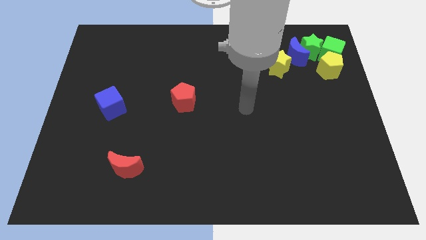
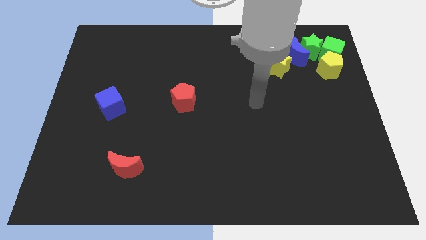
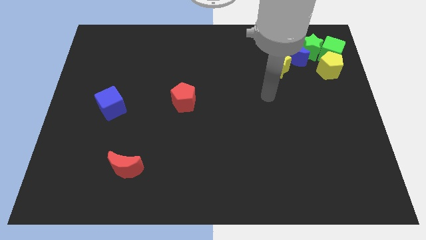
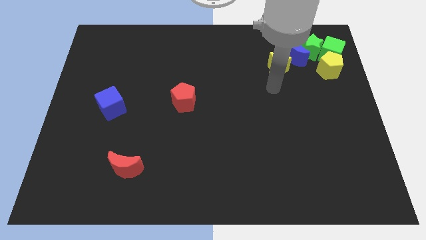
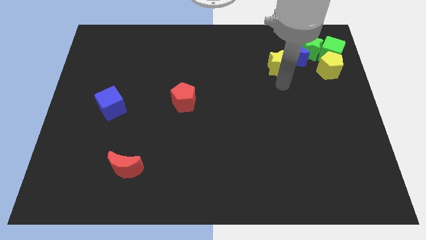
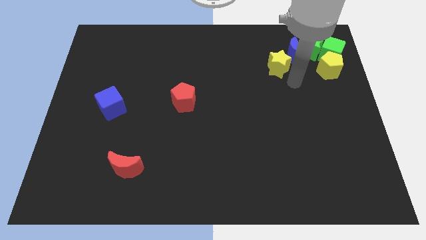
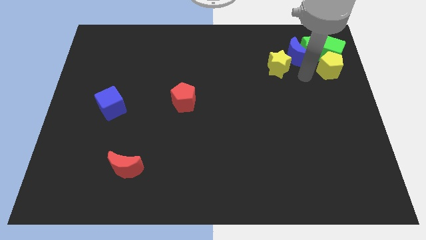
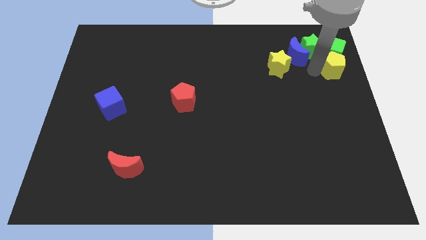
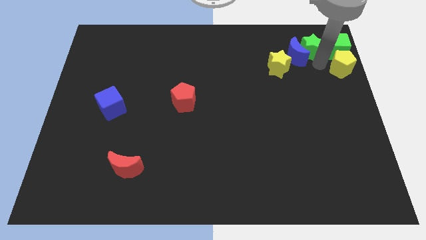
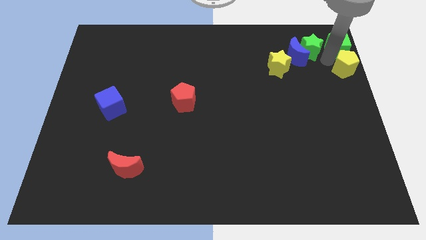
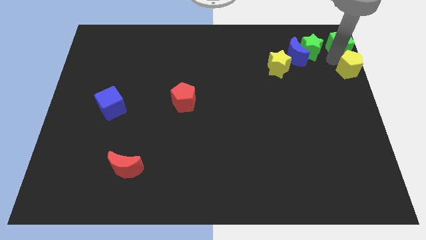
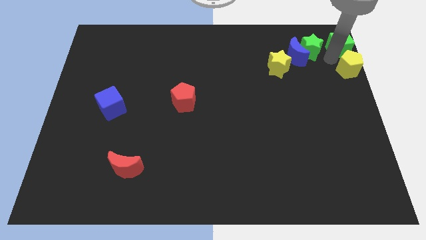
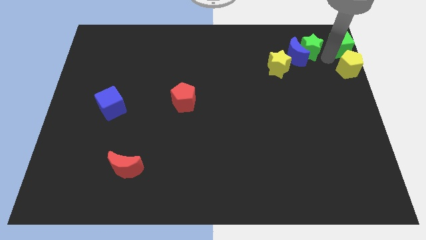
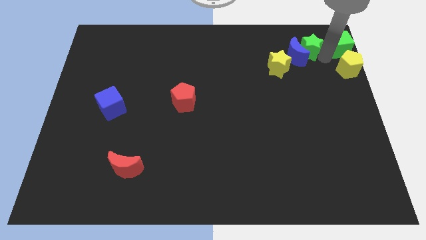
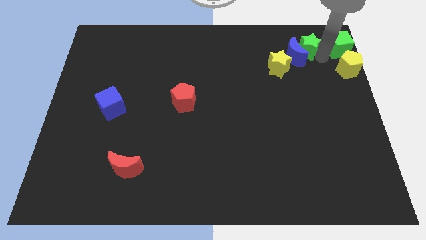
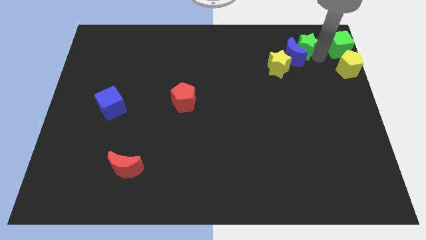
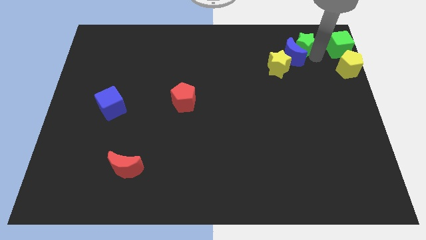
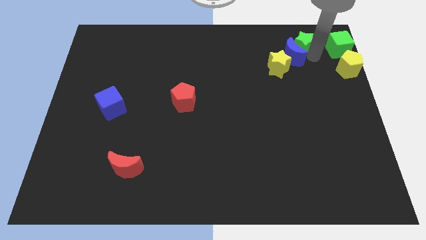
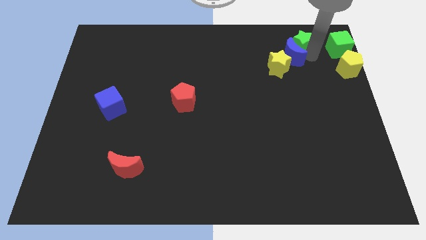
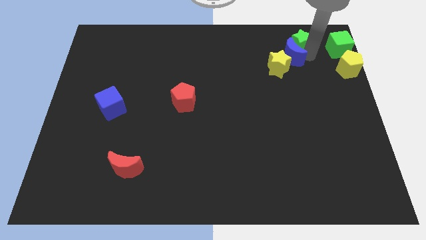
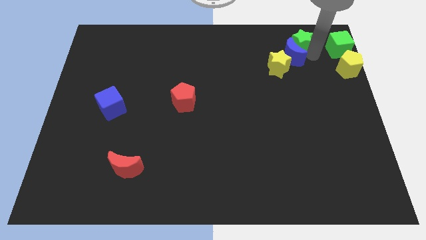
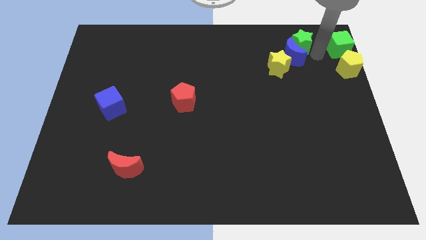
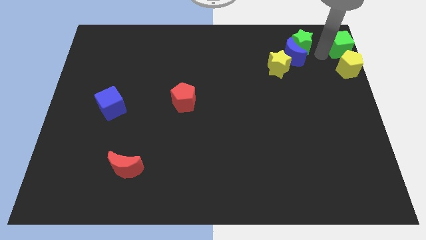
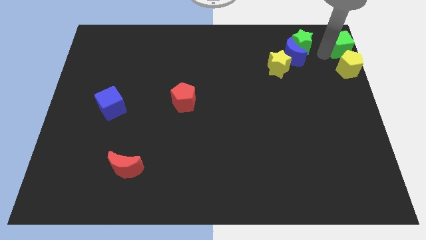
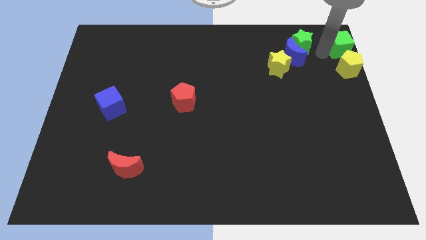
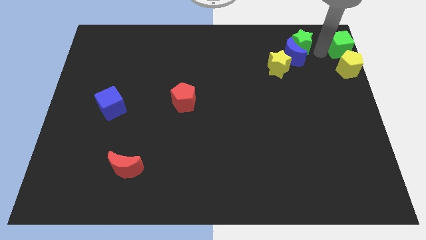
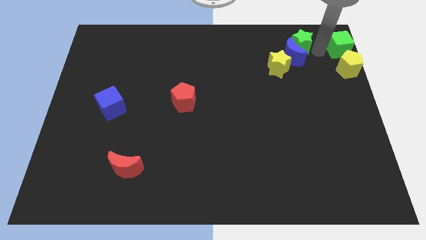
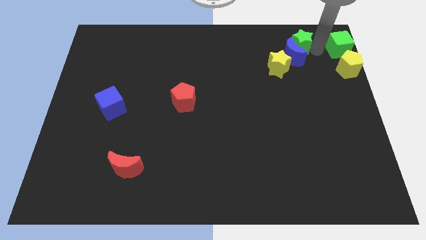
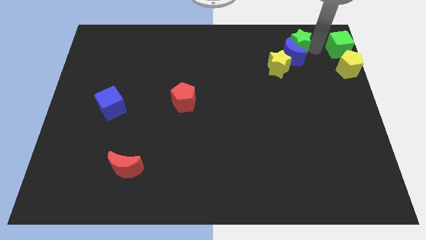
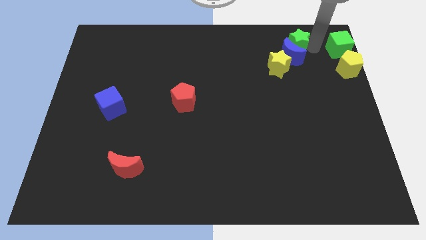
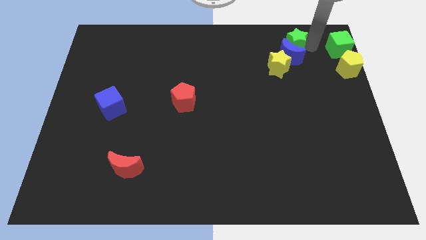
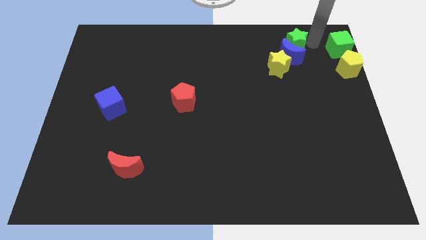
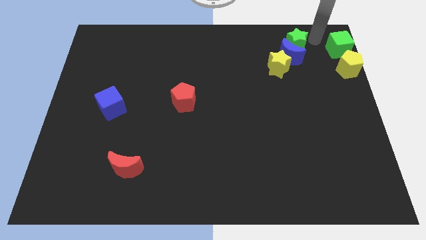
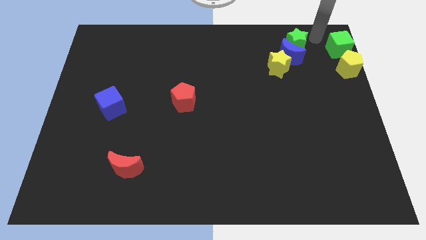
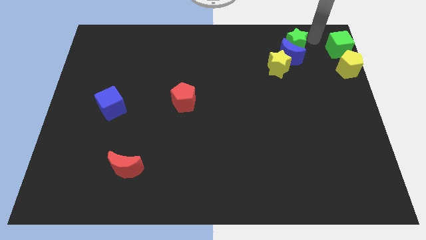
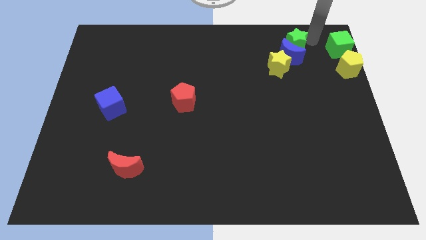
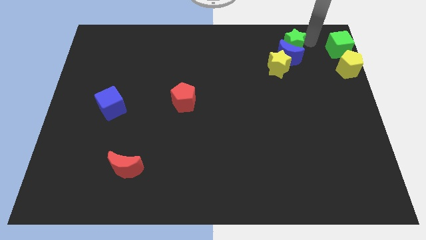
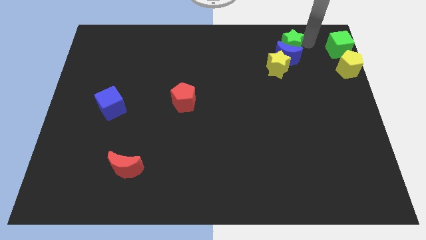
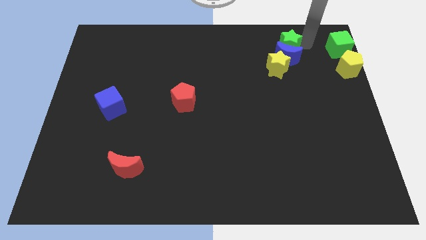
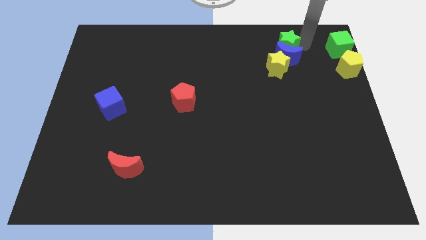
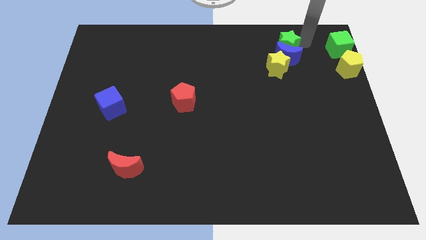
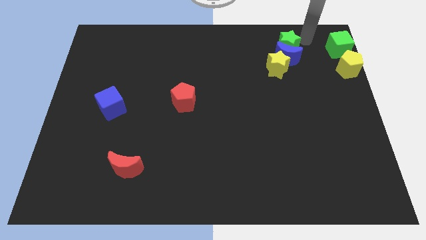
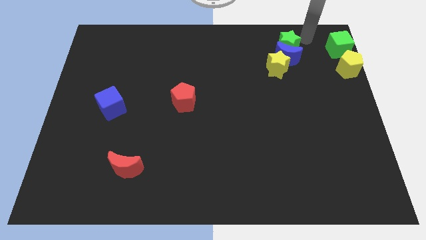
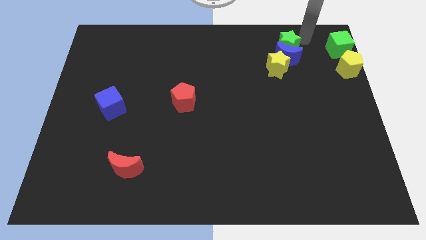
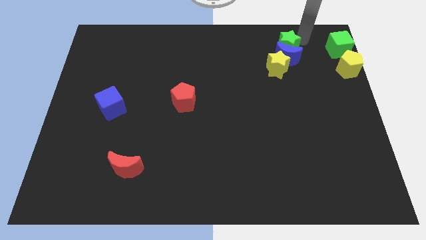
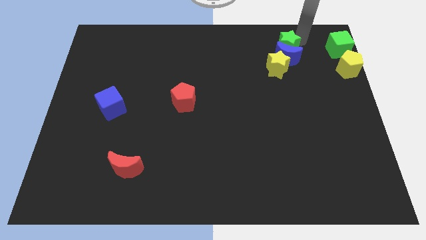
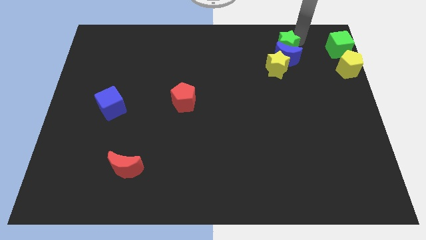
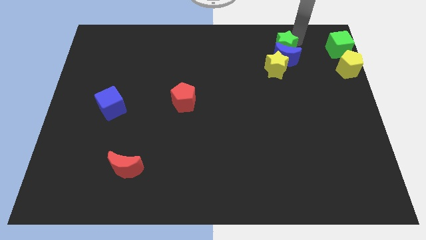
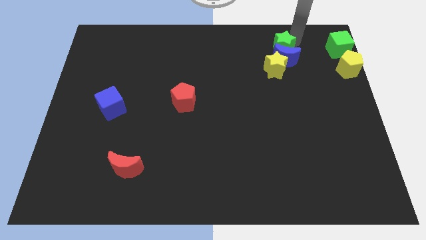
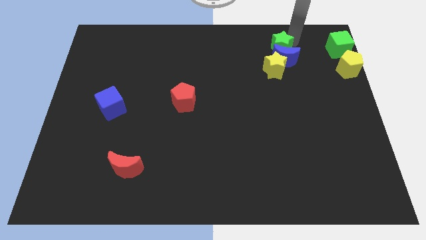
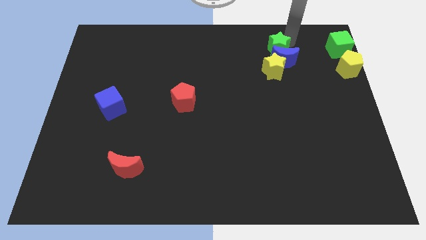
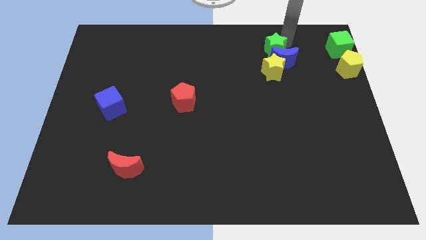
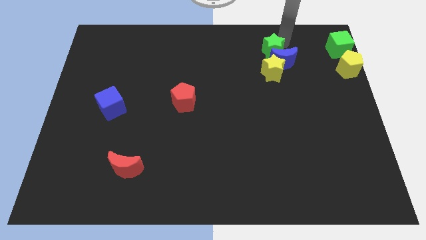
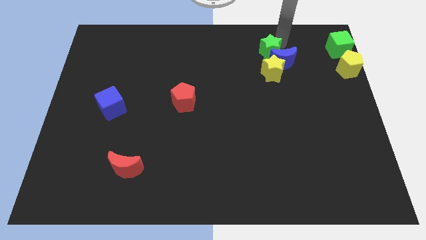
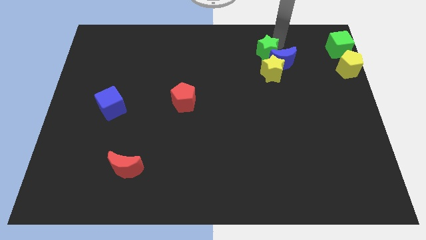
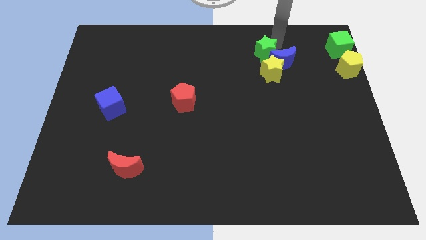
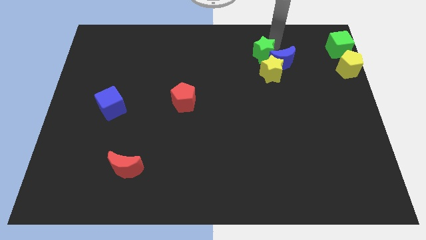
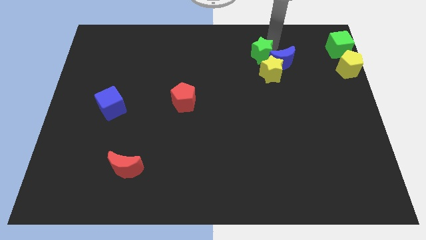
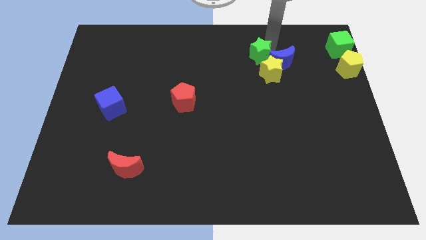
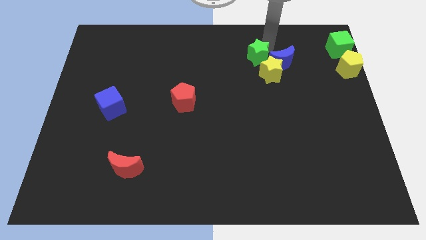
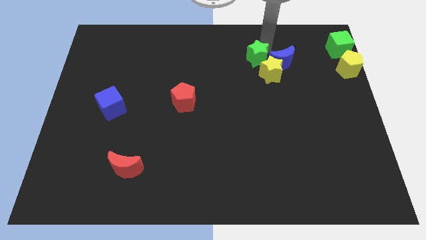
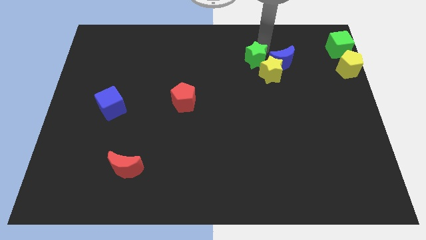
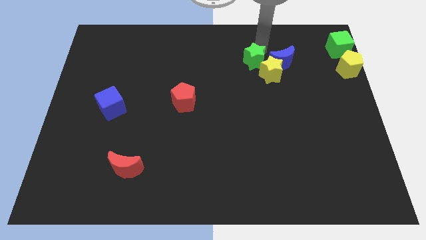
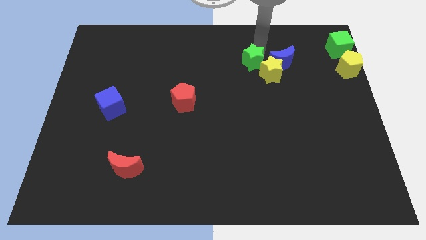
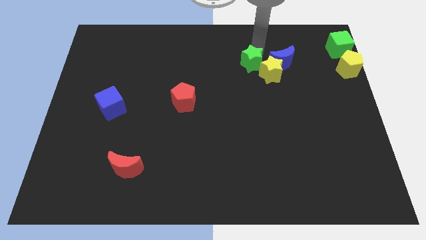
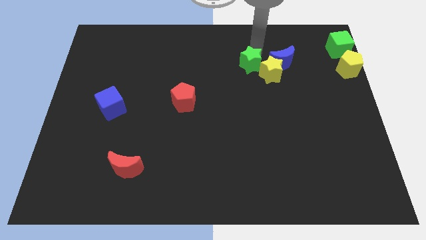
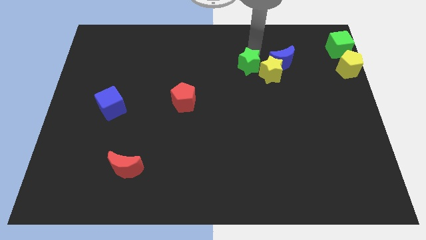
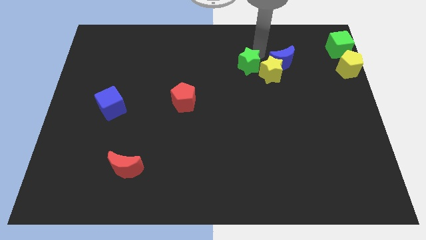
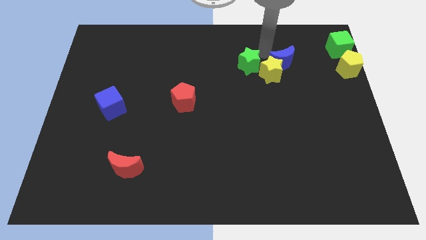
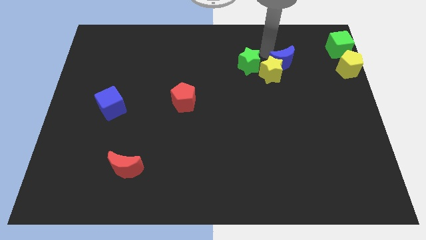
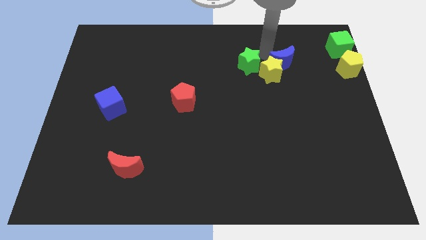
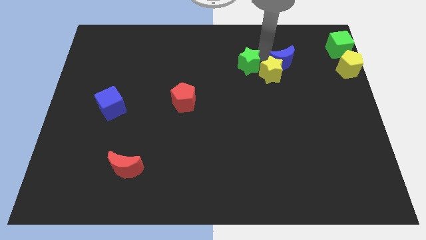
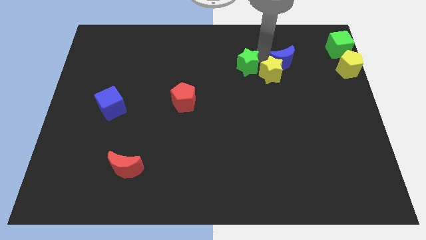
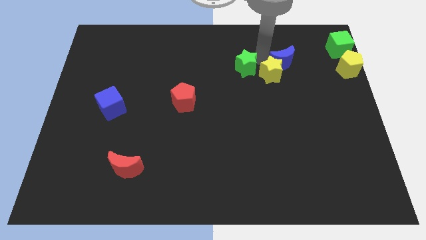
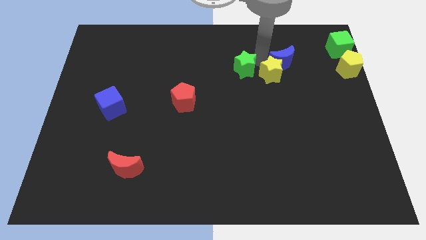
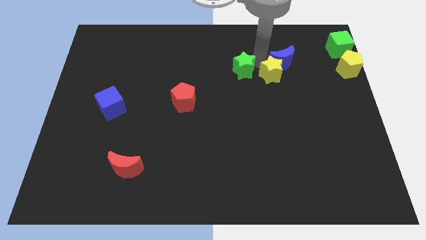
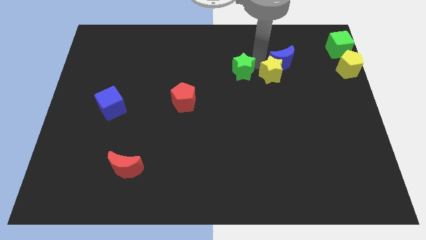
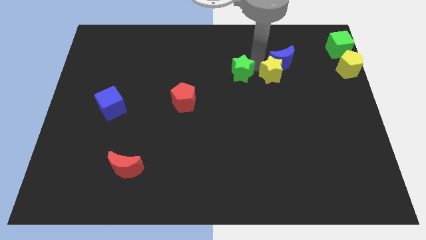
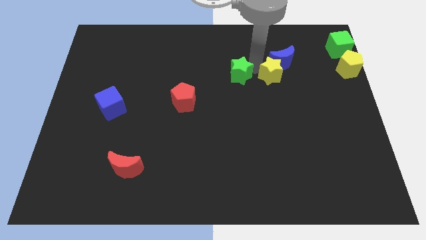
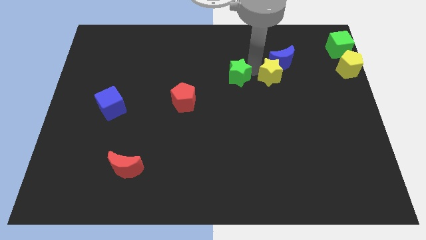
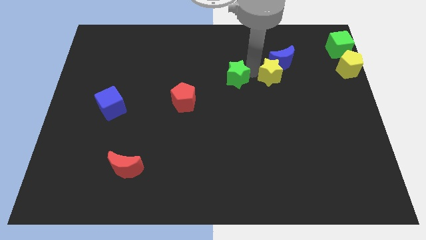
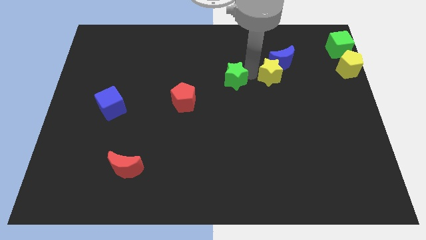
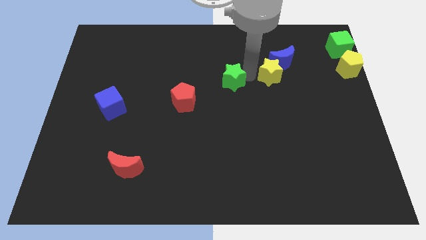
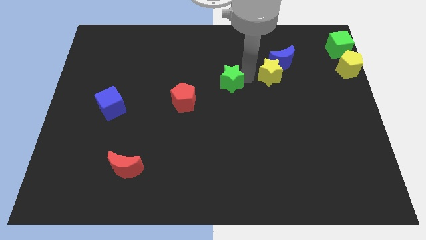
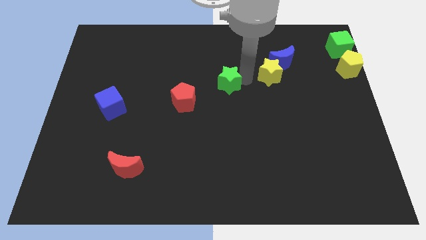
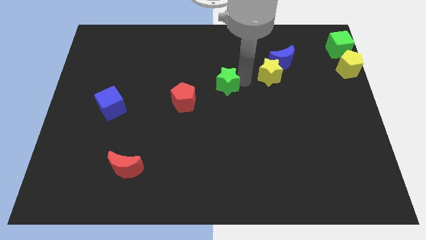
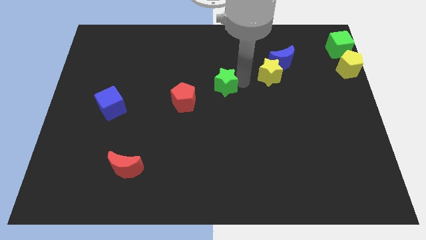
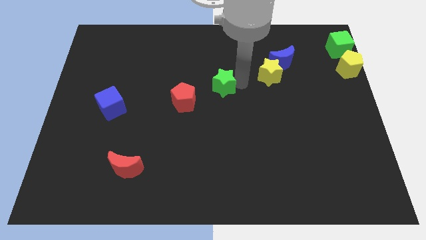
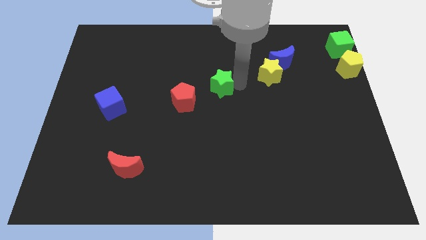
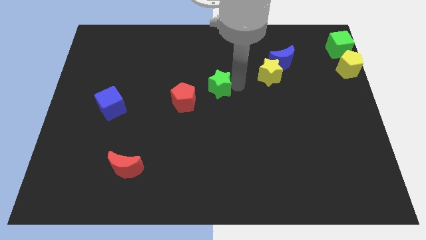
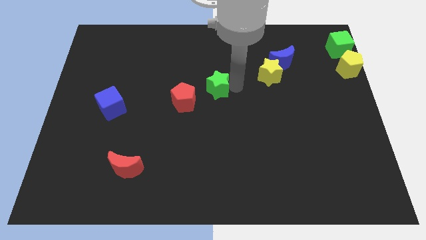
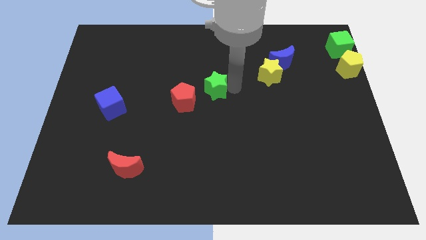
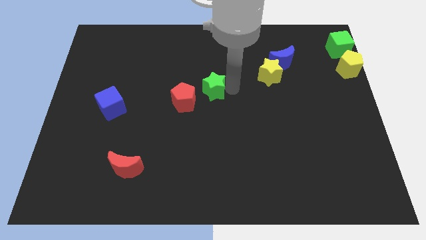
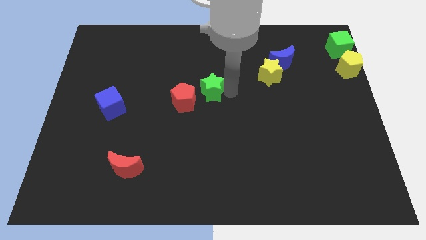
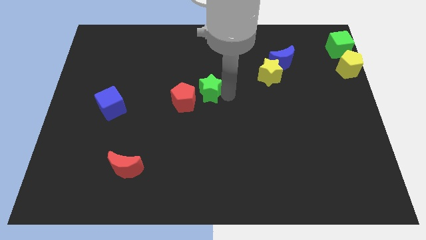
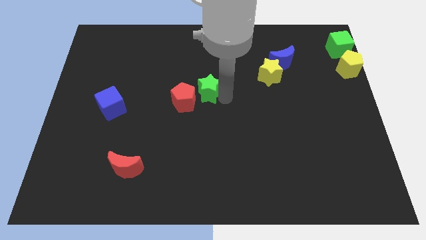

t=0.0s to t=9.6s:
put the green star to the red pentagon
